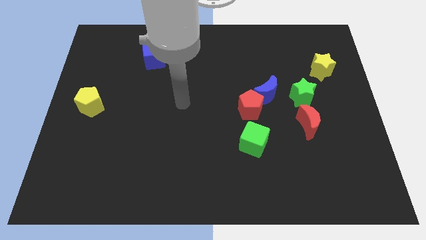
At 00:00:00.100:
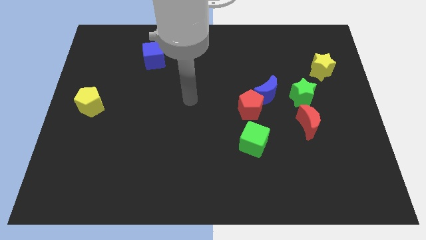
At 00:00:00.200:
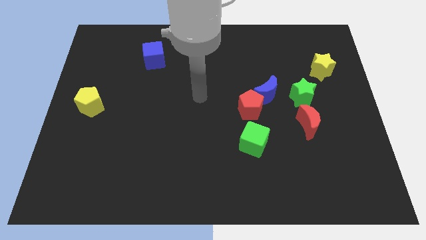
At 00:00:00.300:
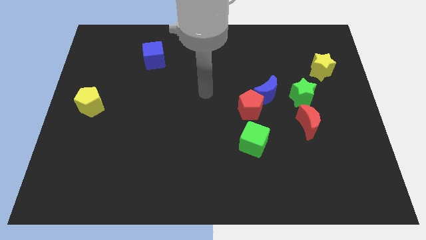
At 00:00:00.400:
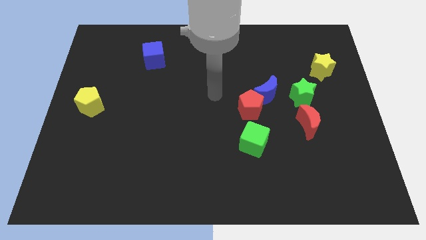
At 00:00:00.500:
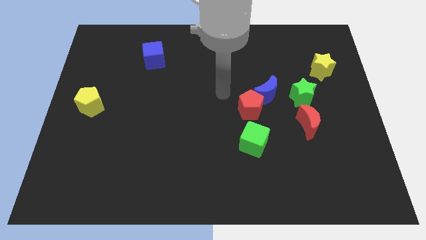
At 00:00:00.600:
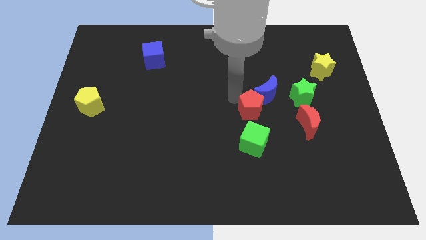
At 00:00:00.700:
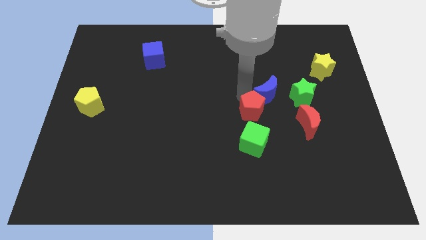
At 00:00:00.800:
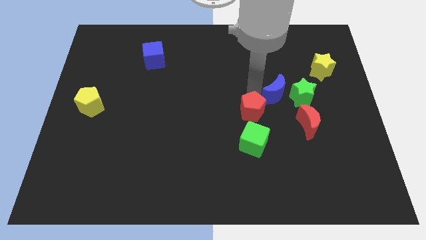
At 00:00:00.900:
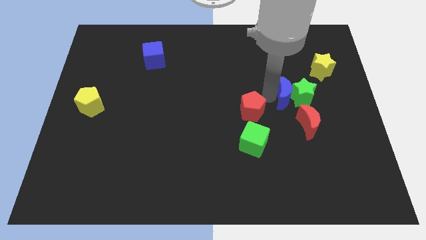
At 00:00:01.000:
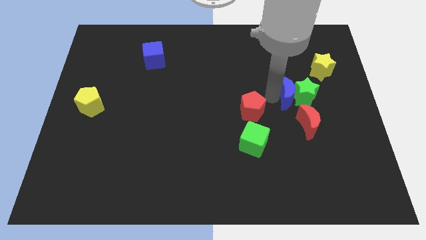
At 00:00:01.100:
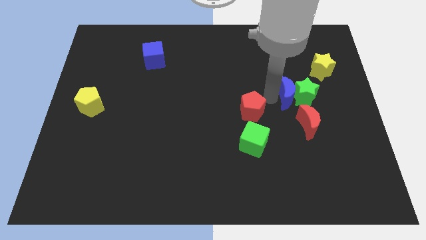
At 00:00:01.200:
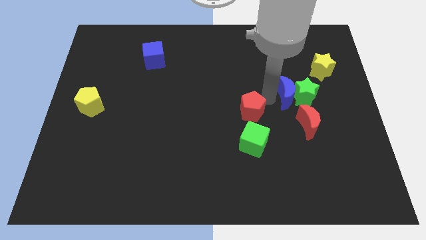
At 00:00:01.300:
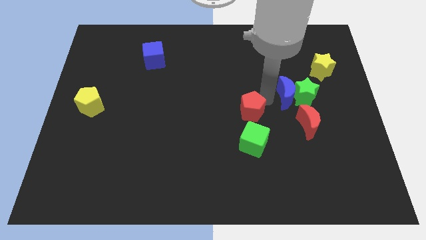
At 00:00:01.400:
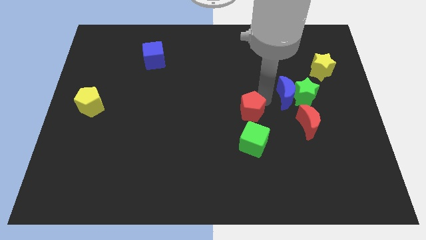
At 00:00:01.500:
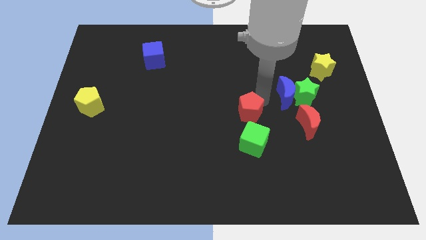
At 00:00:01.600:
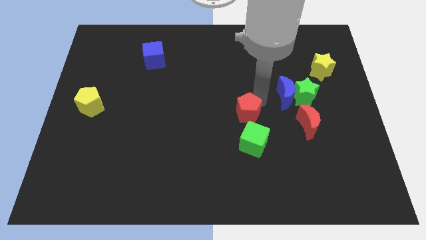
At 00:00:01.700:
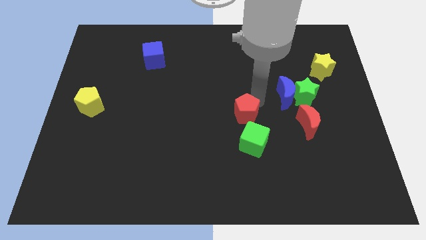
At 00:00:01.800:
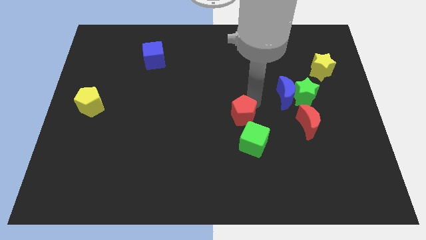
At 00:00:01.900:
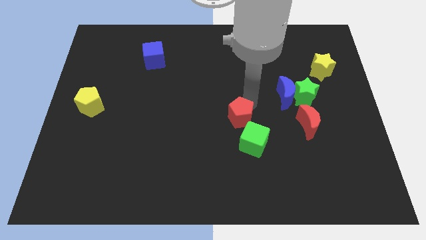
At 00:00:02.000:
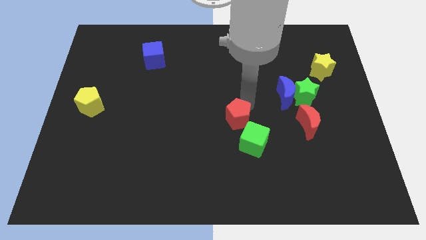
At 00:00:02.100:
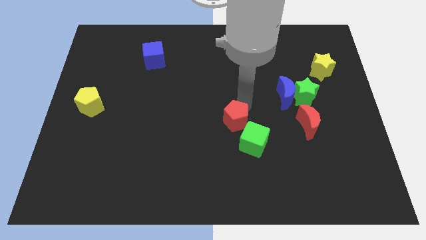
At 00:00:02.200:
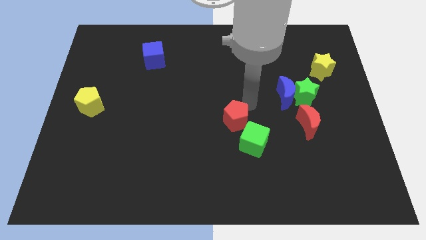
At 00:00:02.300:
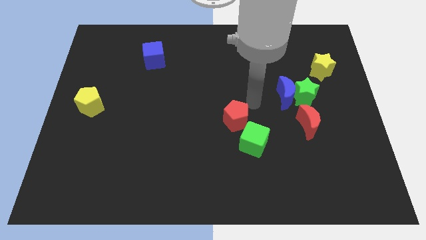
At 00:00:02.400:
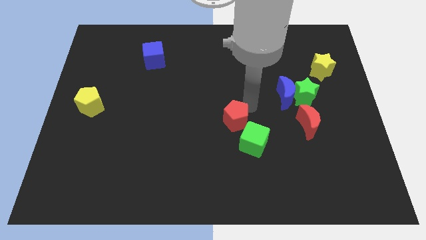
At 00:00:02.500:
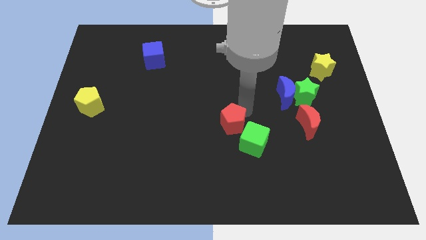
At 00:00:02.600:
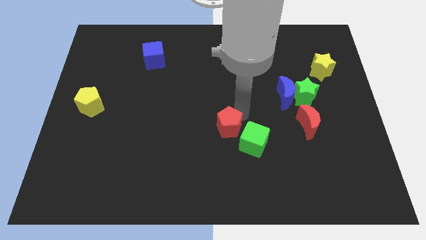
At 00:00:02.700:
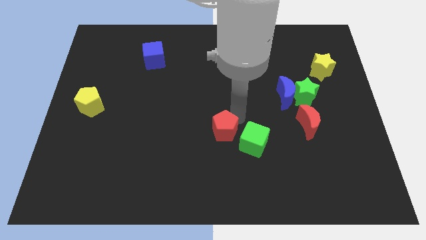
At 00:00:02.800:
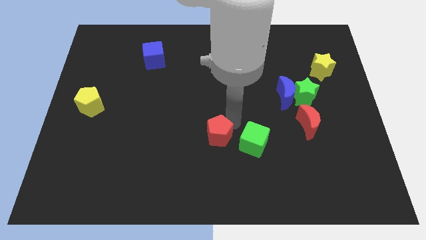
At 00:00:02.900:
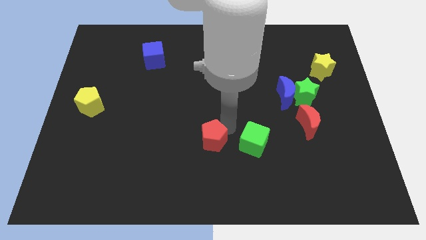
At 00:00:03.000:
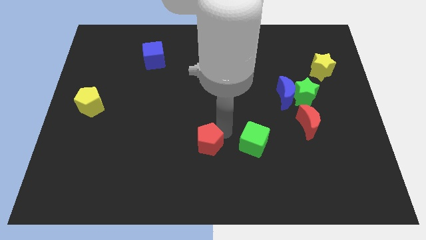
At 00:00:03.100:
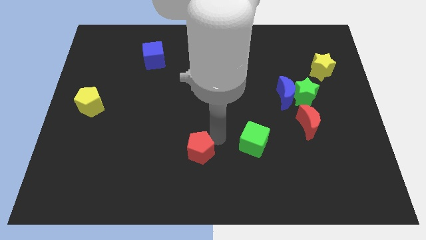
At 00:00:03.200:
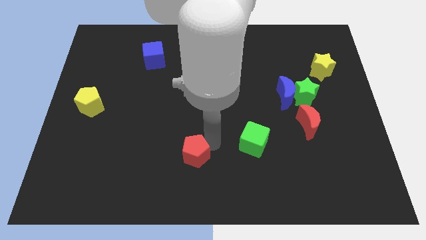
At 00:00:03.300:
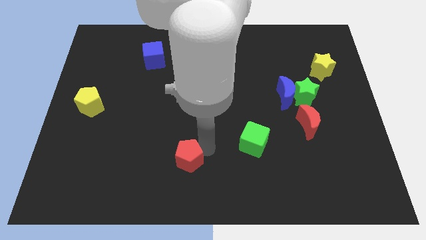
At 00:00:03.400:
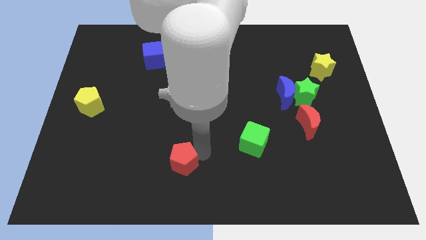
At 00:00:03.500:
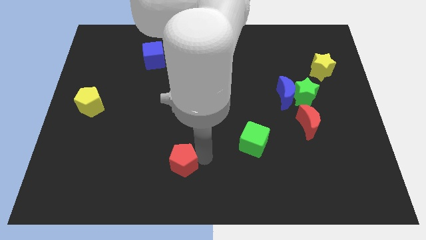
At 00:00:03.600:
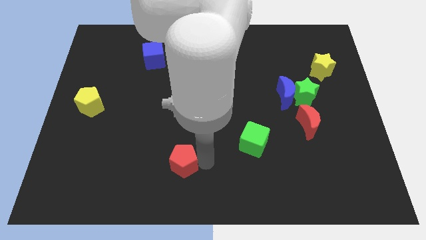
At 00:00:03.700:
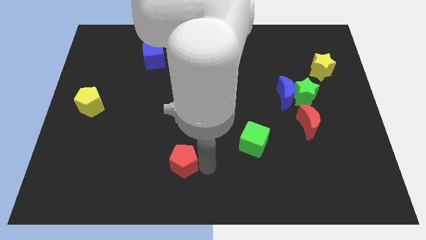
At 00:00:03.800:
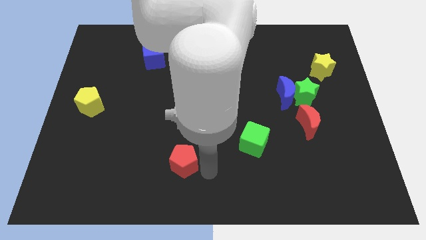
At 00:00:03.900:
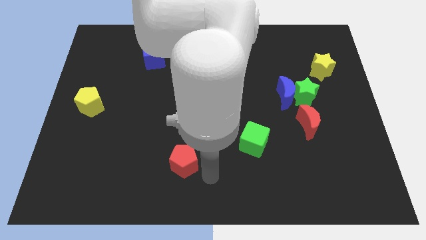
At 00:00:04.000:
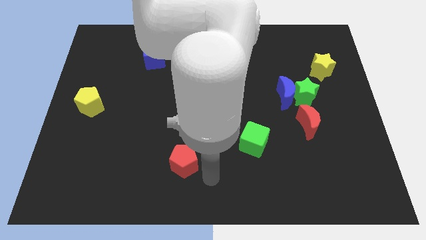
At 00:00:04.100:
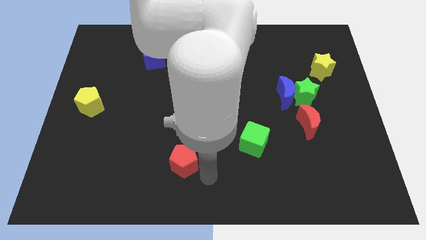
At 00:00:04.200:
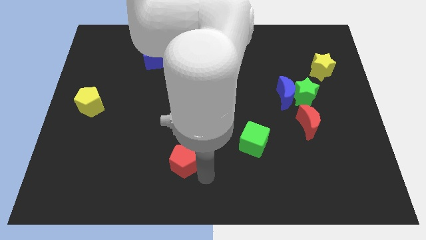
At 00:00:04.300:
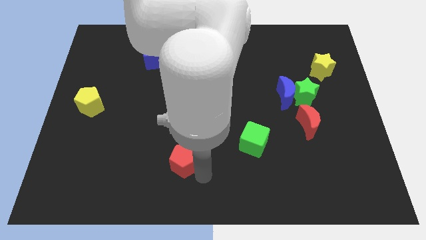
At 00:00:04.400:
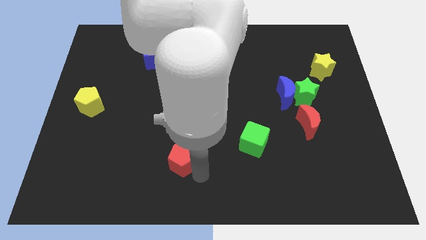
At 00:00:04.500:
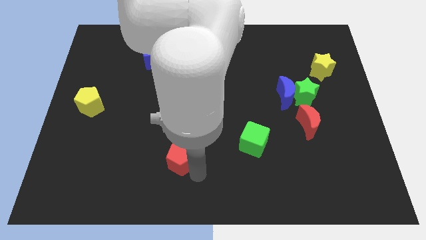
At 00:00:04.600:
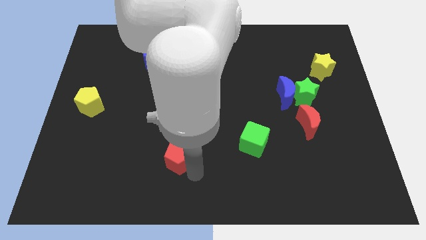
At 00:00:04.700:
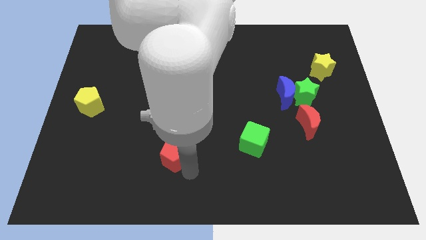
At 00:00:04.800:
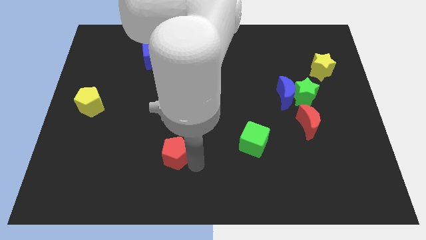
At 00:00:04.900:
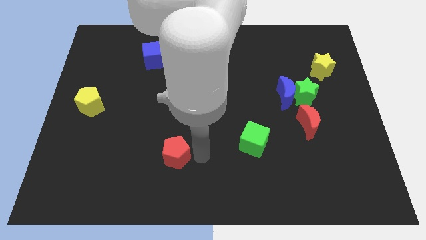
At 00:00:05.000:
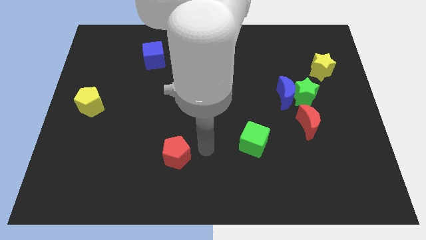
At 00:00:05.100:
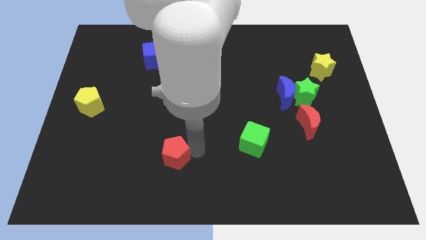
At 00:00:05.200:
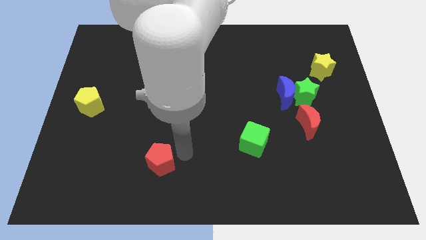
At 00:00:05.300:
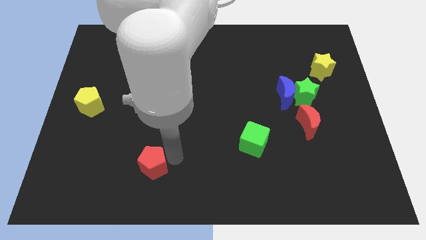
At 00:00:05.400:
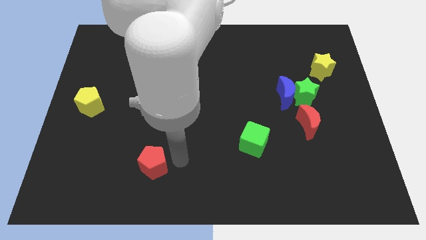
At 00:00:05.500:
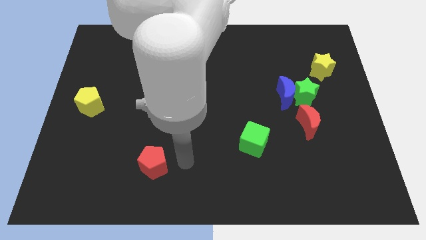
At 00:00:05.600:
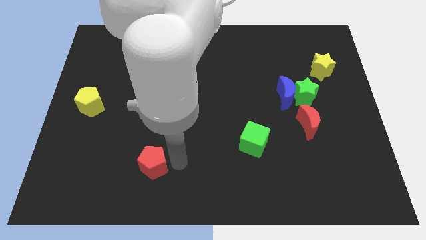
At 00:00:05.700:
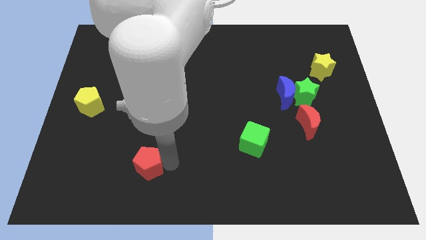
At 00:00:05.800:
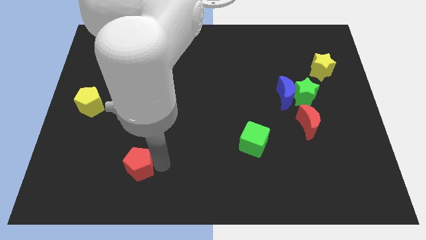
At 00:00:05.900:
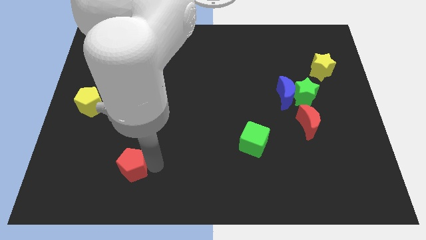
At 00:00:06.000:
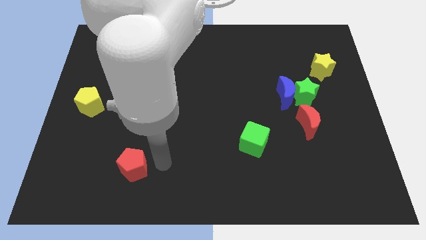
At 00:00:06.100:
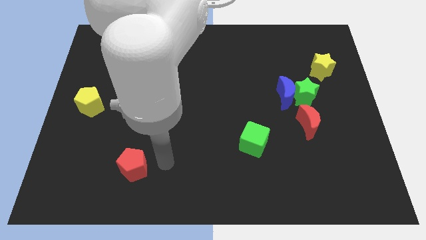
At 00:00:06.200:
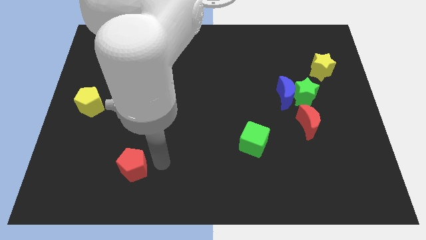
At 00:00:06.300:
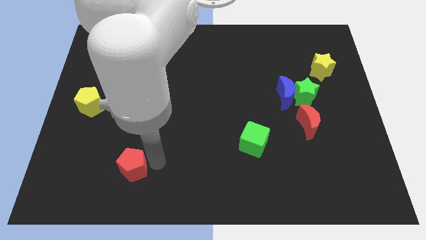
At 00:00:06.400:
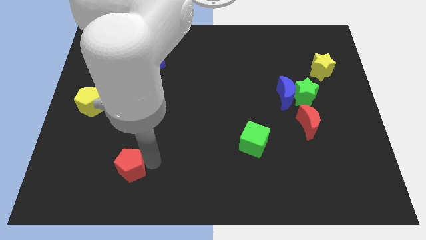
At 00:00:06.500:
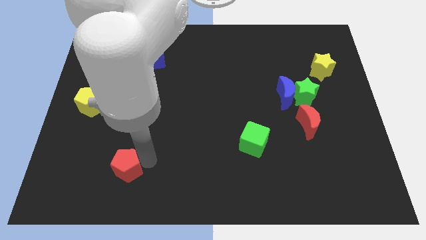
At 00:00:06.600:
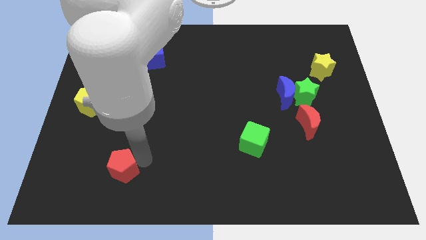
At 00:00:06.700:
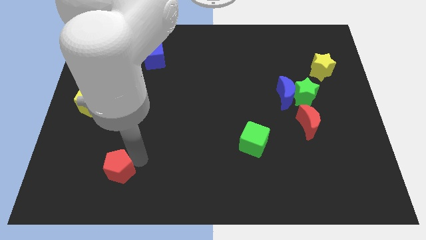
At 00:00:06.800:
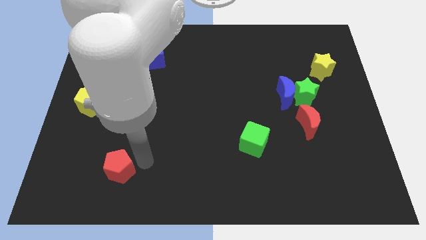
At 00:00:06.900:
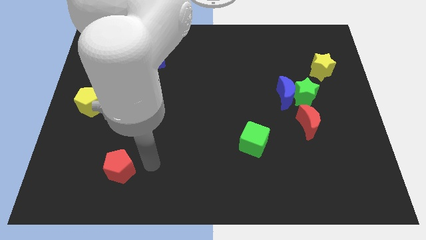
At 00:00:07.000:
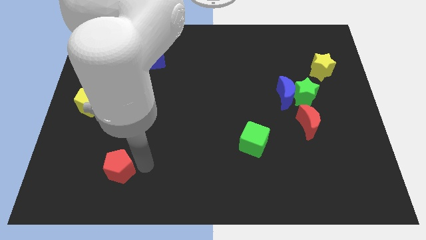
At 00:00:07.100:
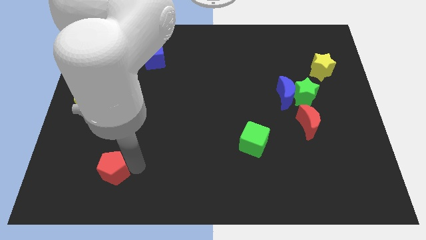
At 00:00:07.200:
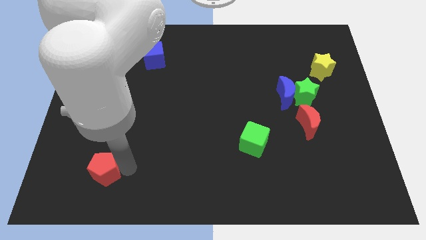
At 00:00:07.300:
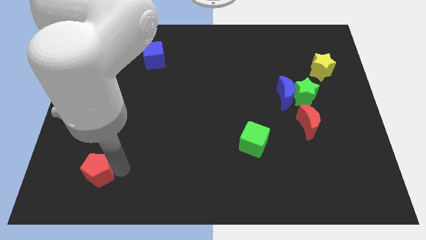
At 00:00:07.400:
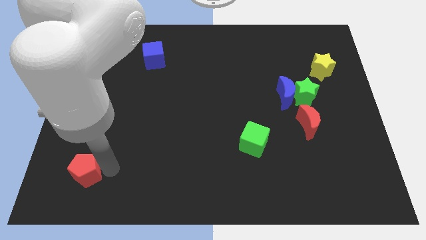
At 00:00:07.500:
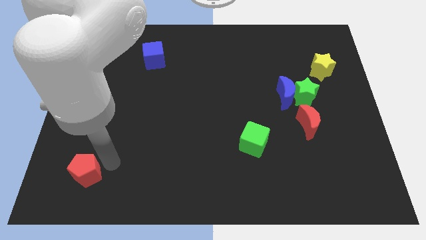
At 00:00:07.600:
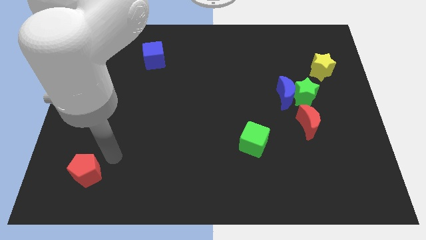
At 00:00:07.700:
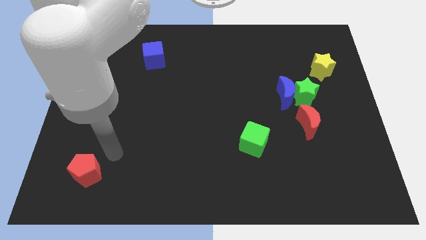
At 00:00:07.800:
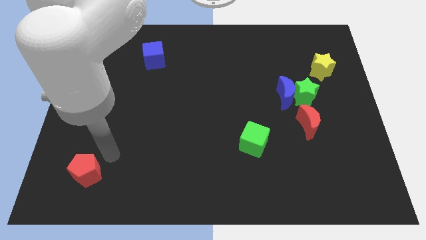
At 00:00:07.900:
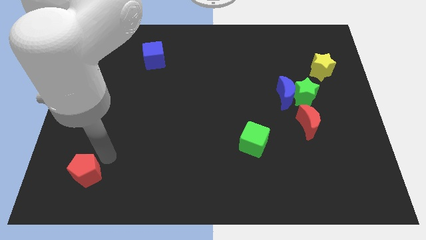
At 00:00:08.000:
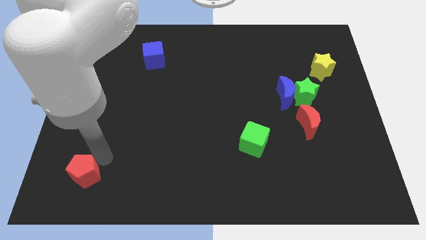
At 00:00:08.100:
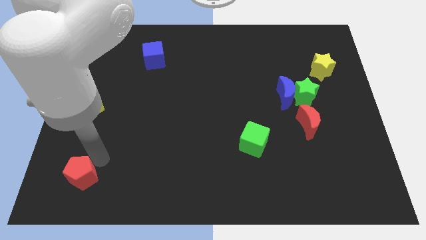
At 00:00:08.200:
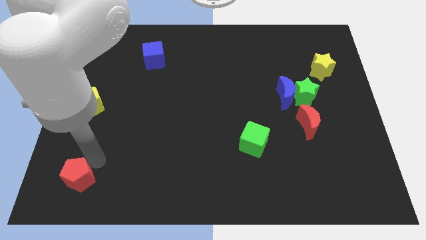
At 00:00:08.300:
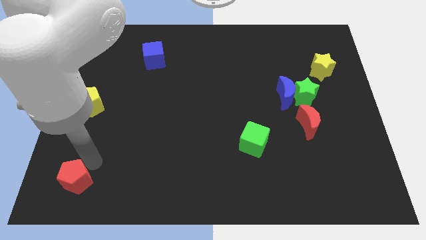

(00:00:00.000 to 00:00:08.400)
move the red pentagon to the bottom left of the board
